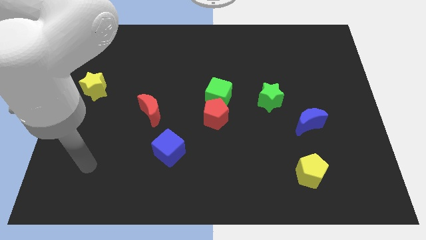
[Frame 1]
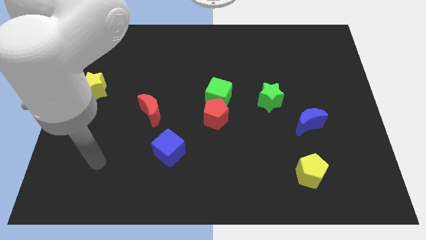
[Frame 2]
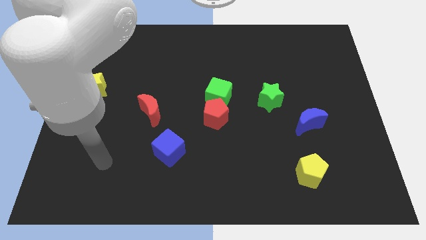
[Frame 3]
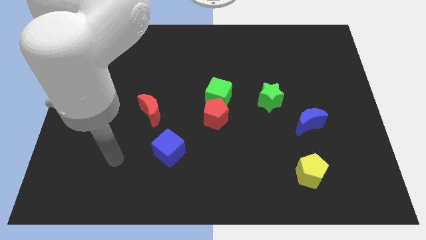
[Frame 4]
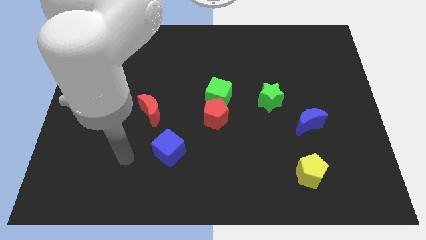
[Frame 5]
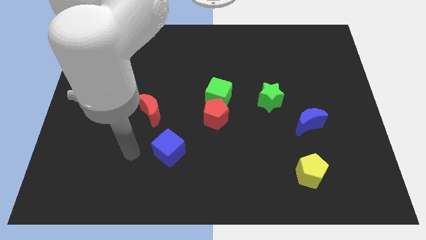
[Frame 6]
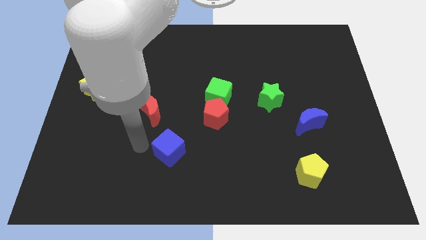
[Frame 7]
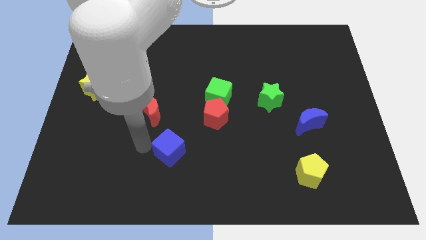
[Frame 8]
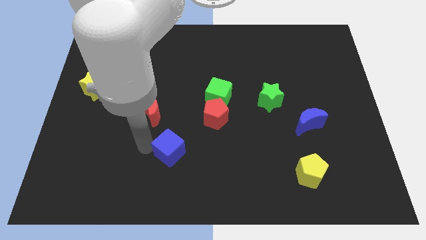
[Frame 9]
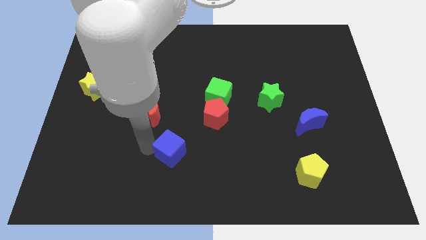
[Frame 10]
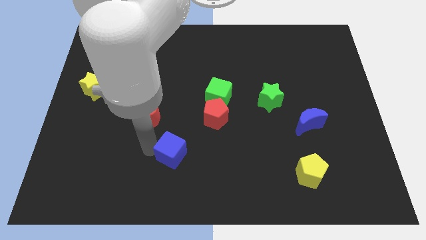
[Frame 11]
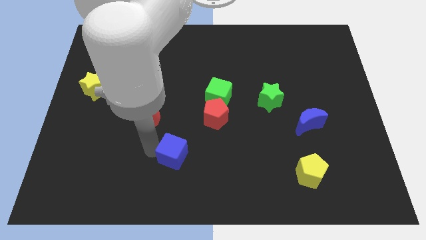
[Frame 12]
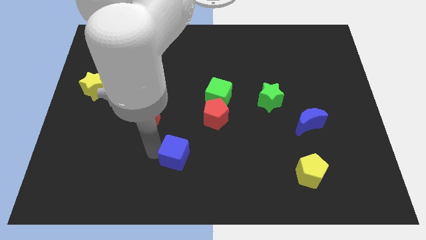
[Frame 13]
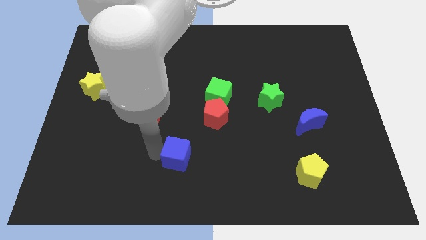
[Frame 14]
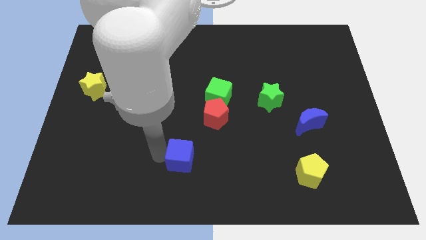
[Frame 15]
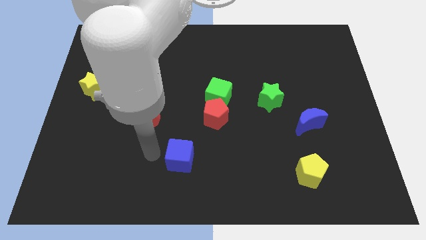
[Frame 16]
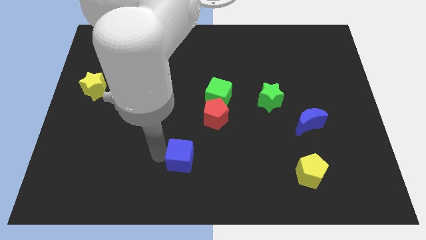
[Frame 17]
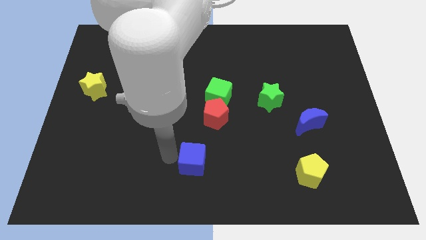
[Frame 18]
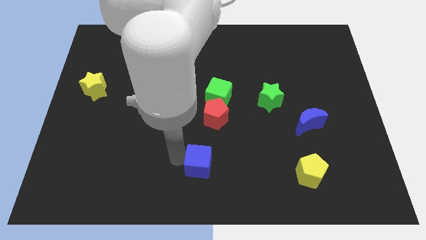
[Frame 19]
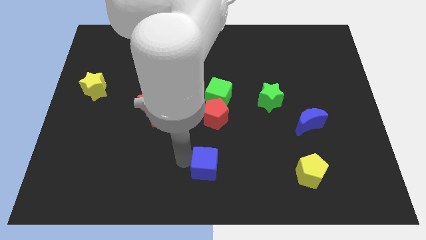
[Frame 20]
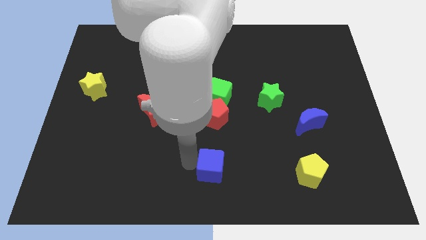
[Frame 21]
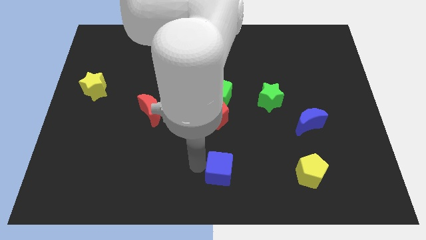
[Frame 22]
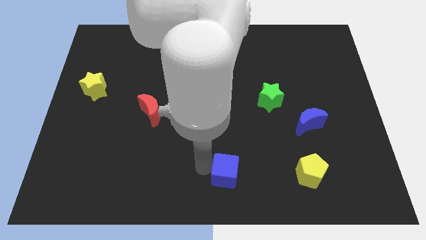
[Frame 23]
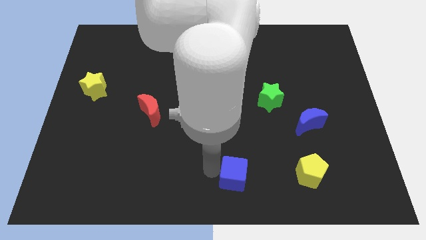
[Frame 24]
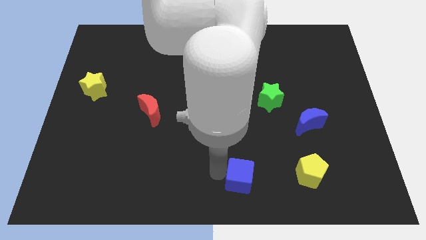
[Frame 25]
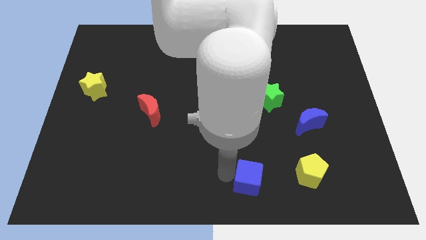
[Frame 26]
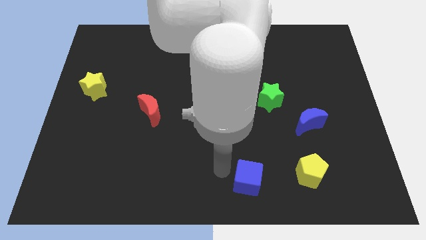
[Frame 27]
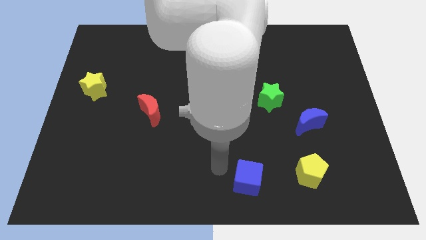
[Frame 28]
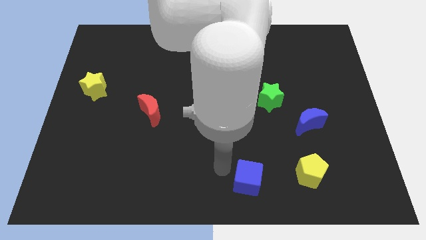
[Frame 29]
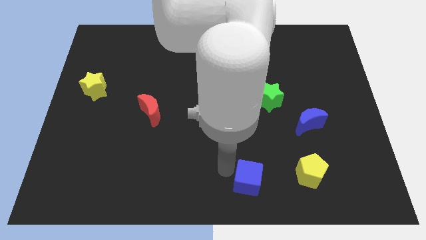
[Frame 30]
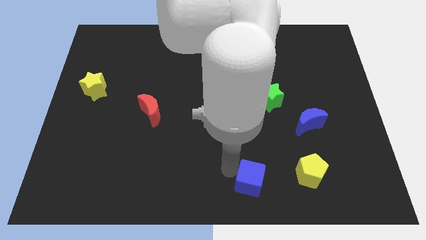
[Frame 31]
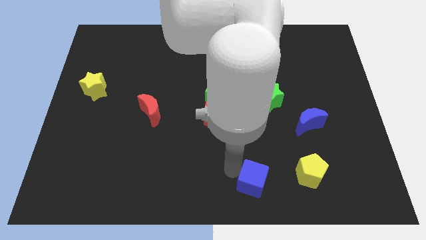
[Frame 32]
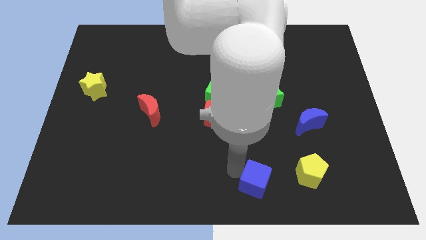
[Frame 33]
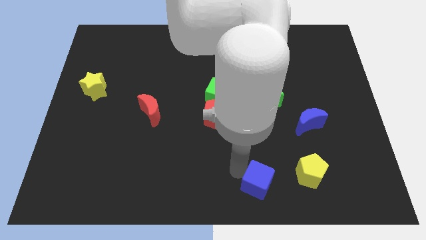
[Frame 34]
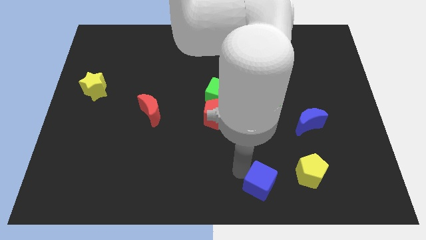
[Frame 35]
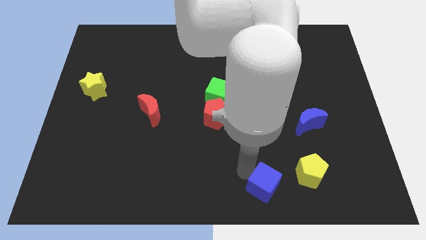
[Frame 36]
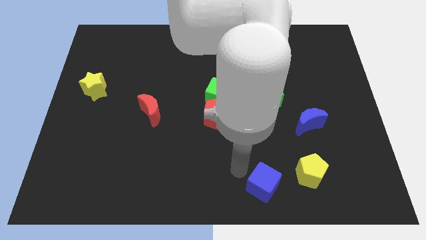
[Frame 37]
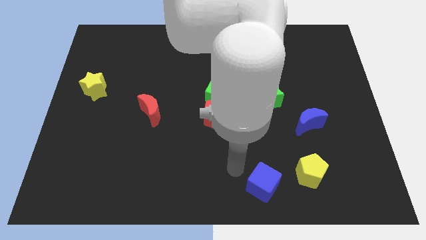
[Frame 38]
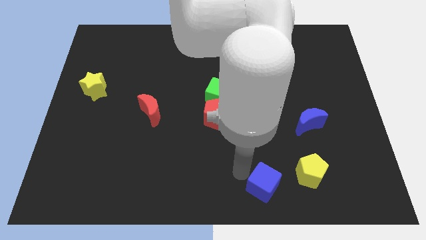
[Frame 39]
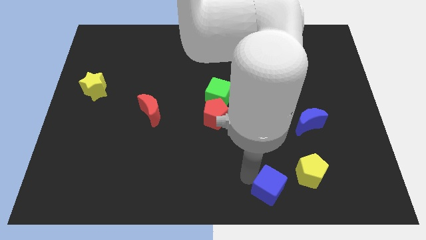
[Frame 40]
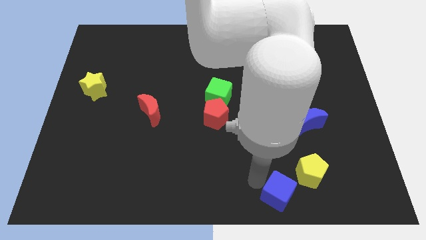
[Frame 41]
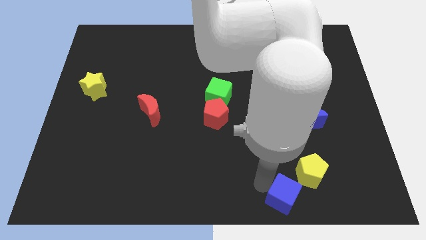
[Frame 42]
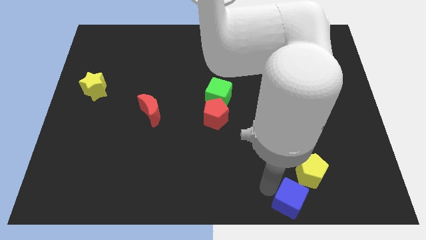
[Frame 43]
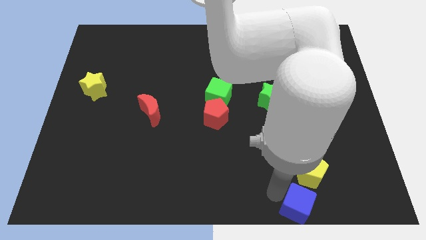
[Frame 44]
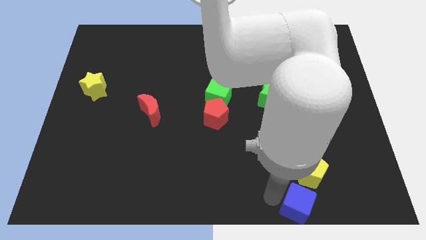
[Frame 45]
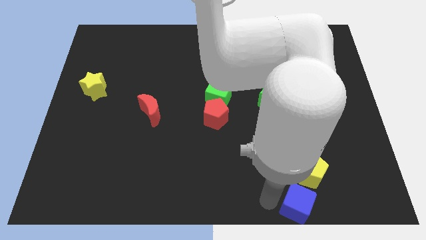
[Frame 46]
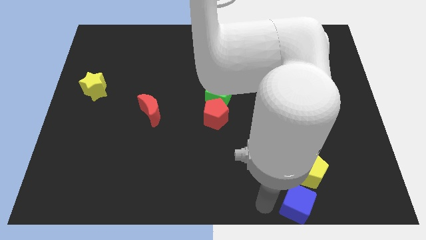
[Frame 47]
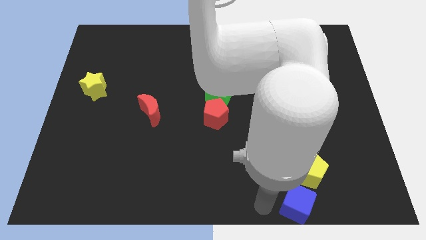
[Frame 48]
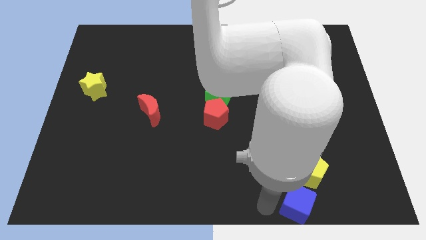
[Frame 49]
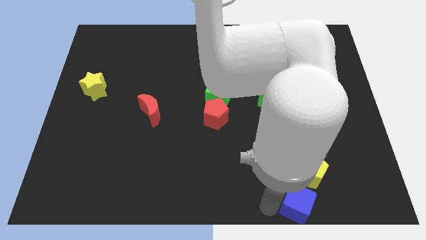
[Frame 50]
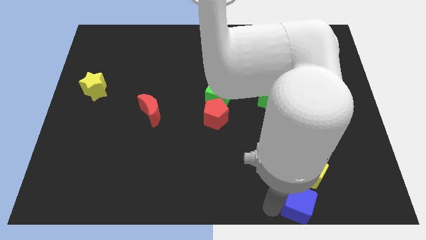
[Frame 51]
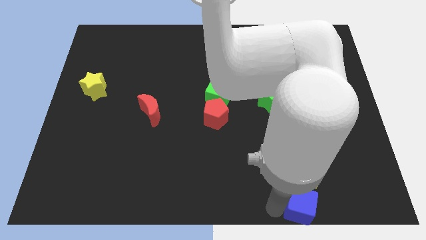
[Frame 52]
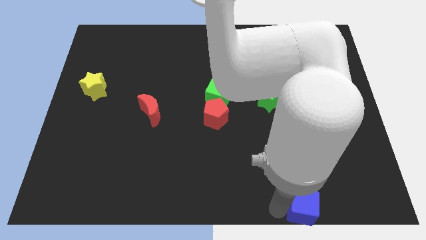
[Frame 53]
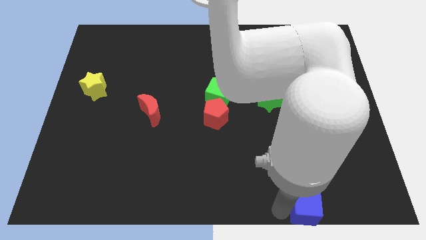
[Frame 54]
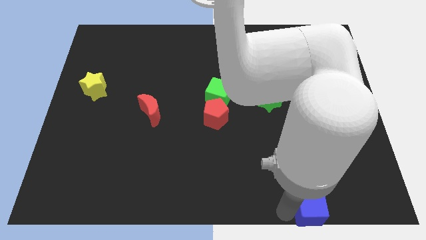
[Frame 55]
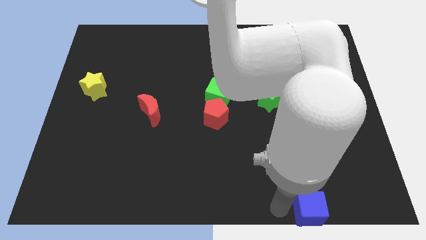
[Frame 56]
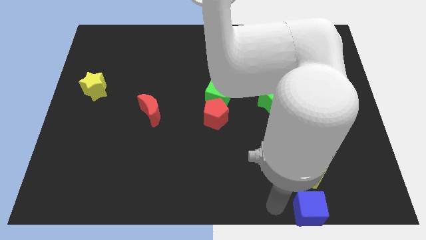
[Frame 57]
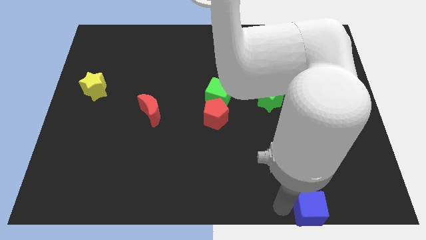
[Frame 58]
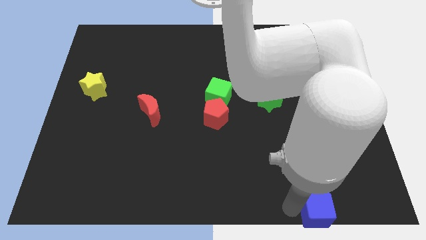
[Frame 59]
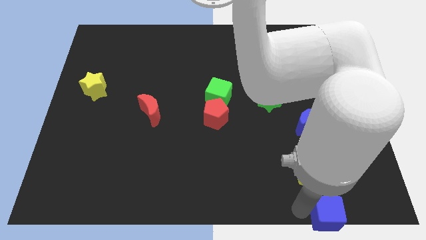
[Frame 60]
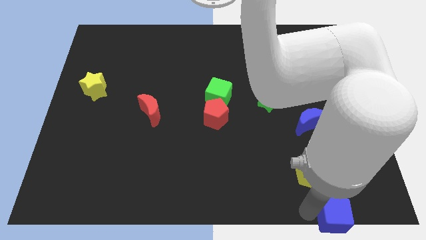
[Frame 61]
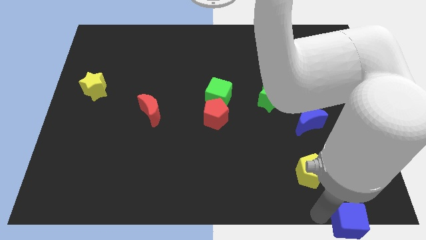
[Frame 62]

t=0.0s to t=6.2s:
put the blue cube to the bottom right
